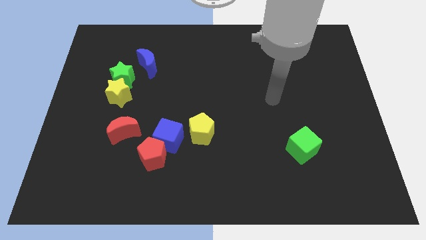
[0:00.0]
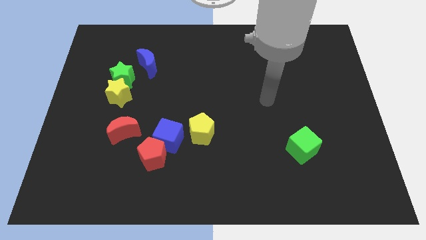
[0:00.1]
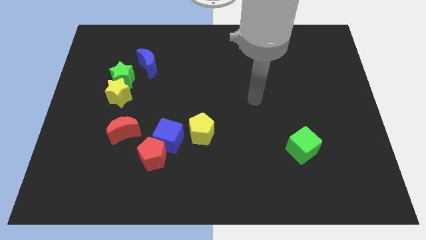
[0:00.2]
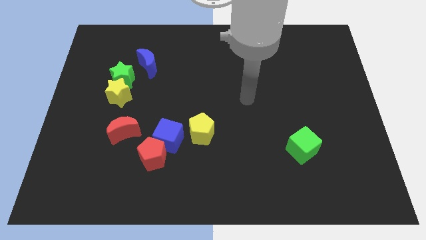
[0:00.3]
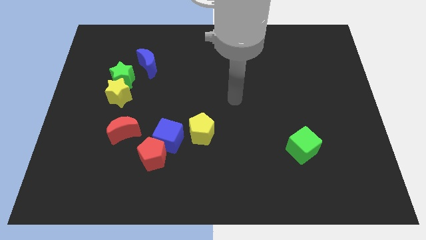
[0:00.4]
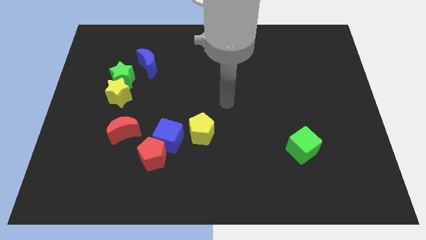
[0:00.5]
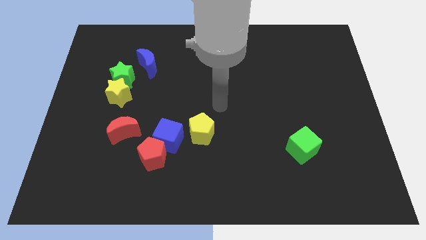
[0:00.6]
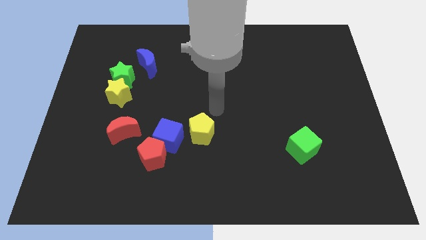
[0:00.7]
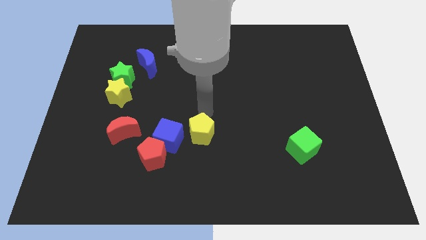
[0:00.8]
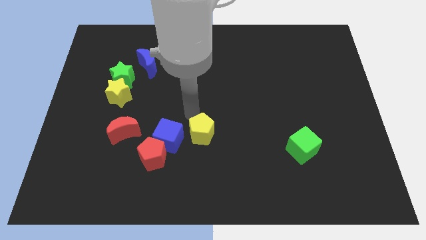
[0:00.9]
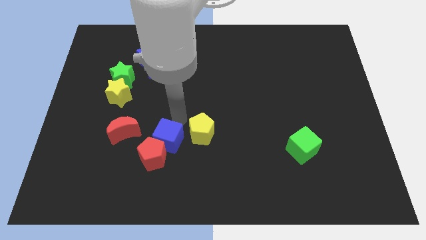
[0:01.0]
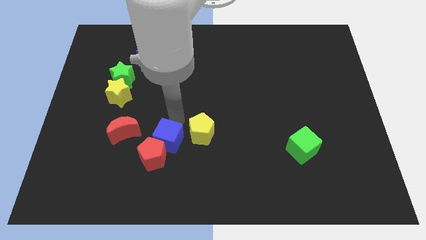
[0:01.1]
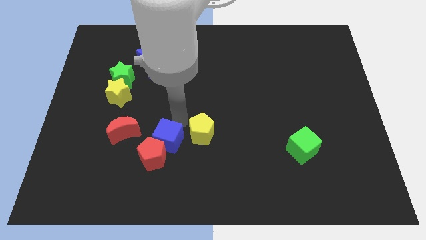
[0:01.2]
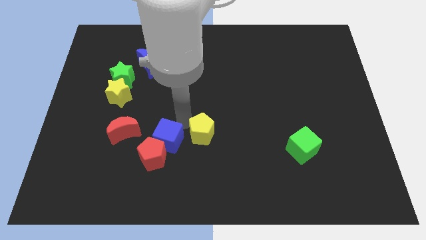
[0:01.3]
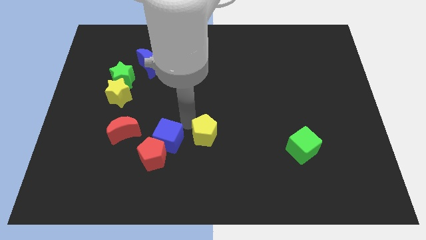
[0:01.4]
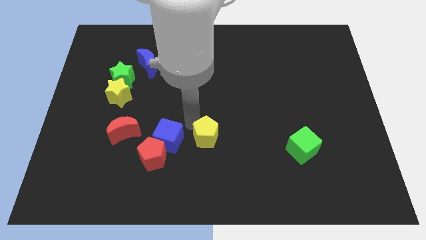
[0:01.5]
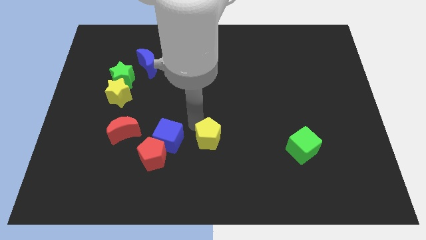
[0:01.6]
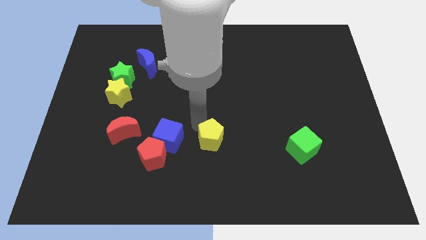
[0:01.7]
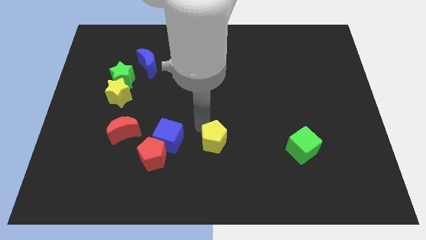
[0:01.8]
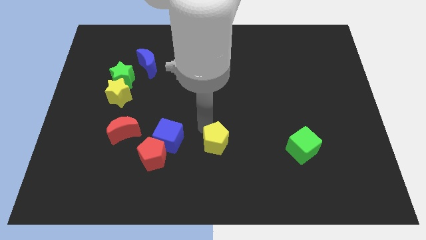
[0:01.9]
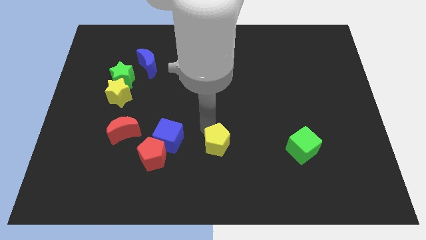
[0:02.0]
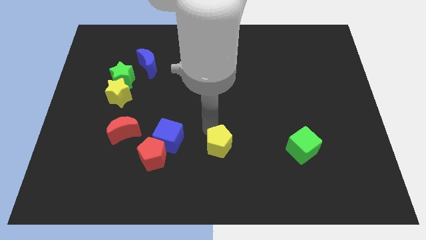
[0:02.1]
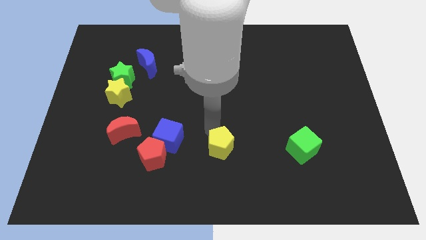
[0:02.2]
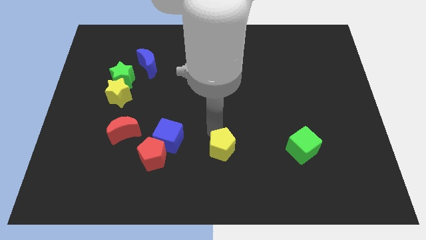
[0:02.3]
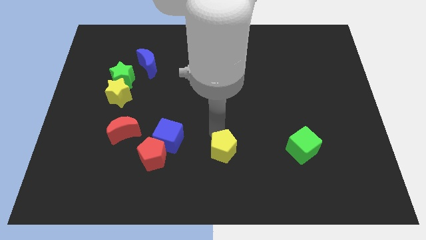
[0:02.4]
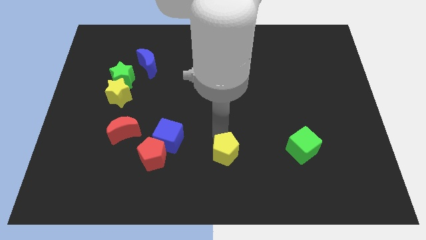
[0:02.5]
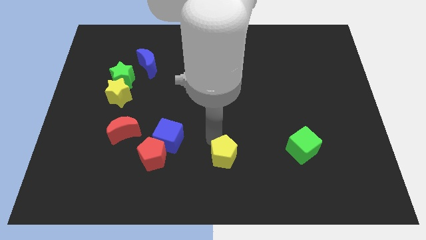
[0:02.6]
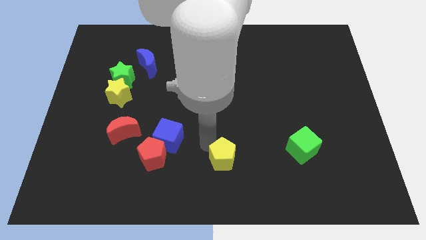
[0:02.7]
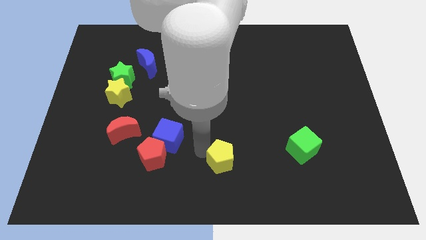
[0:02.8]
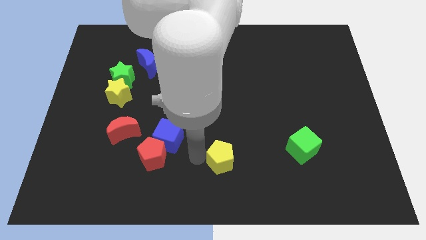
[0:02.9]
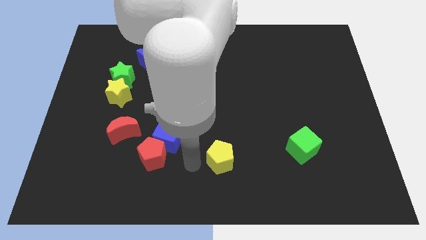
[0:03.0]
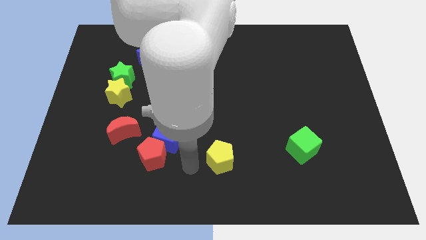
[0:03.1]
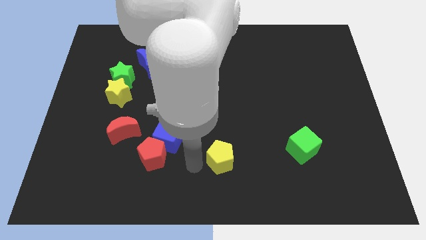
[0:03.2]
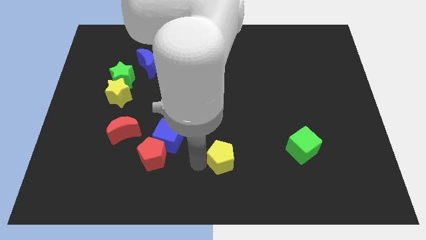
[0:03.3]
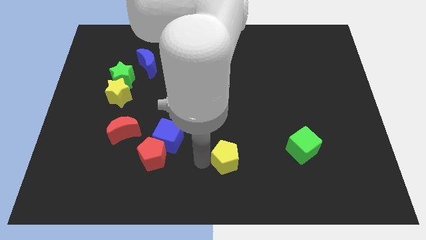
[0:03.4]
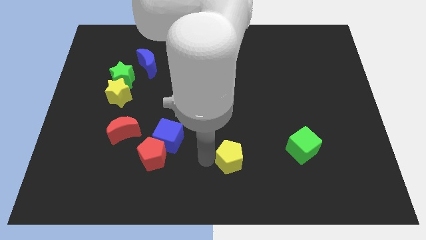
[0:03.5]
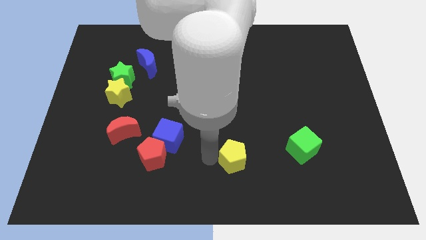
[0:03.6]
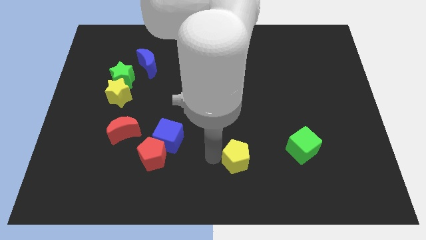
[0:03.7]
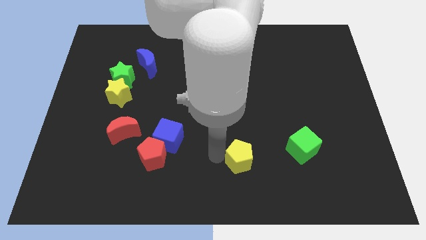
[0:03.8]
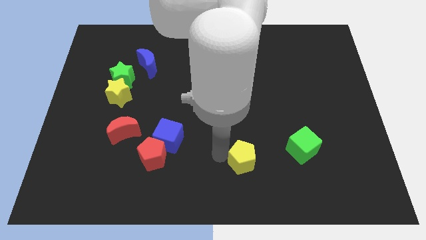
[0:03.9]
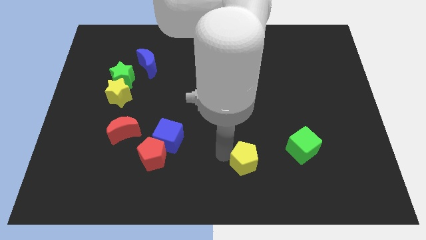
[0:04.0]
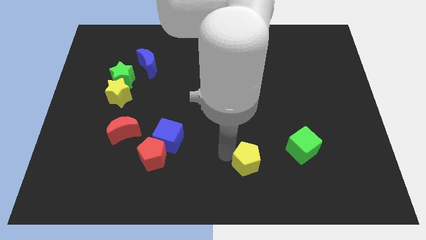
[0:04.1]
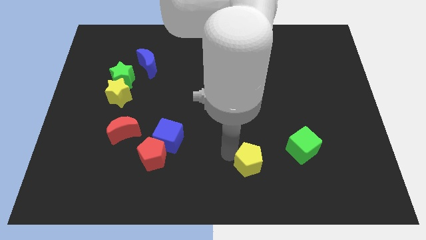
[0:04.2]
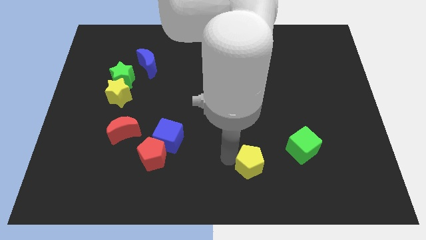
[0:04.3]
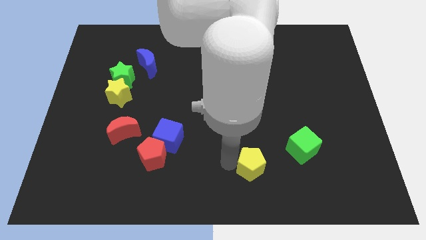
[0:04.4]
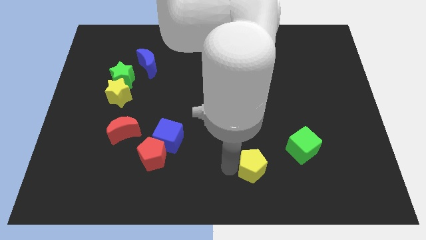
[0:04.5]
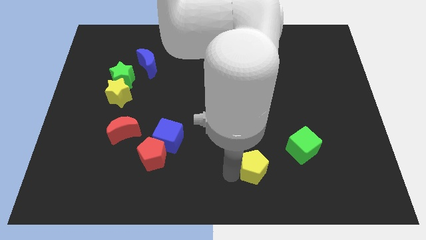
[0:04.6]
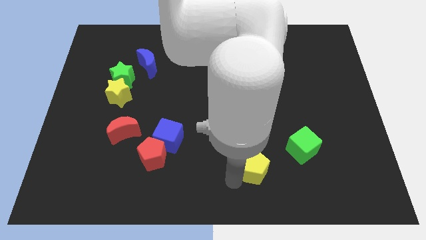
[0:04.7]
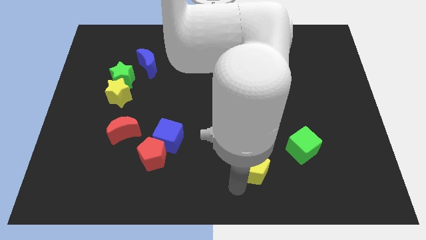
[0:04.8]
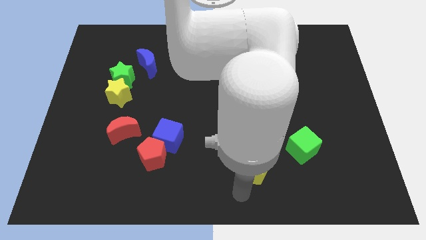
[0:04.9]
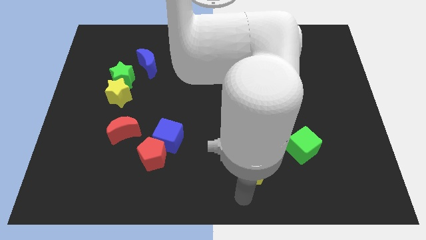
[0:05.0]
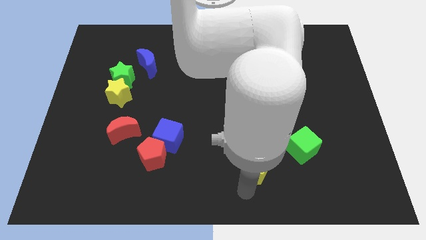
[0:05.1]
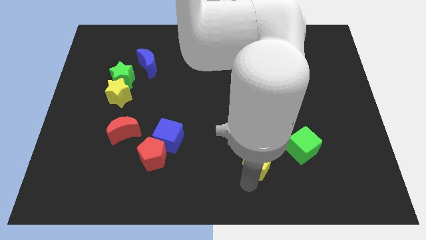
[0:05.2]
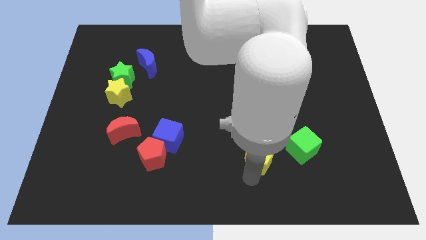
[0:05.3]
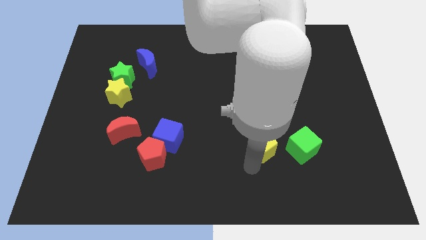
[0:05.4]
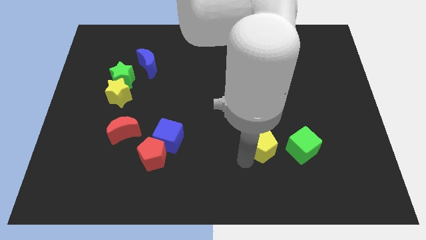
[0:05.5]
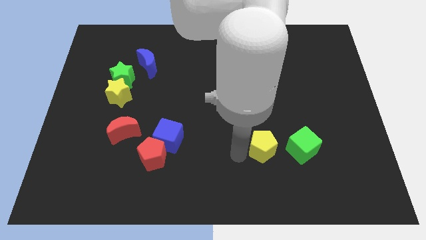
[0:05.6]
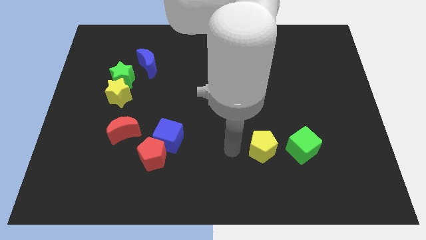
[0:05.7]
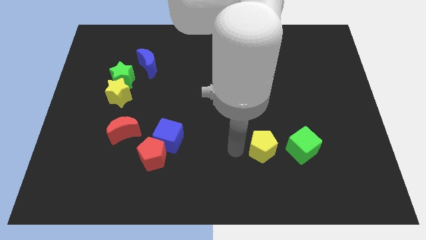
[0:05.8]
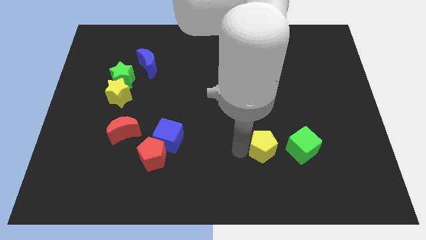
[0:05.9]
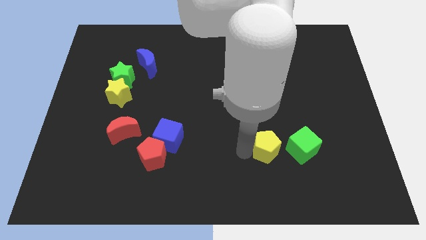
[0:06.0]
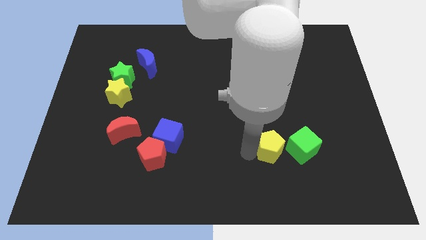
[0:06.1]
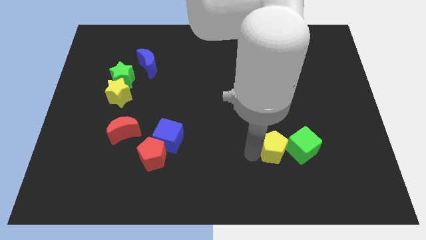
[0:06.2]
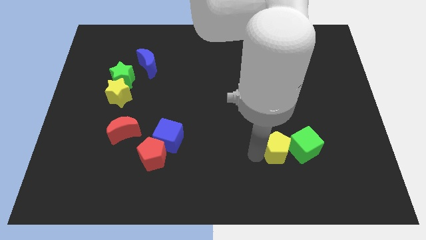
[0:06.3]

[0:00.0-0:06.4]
put the yellow pentagon close to the green cube
